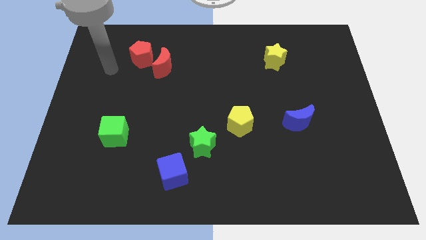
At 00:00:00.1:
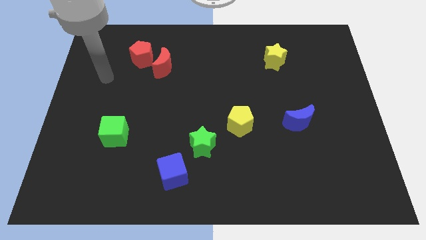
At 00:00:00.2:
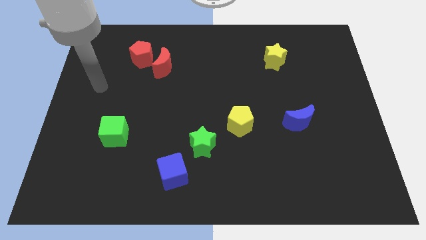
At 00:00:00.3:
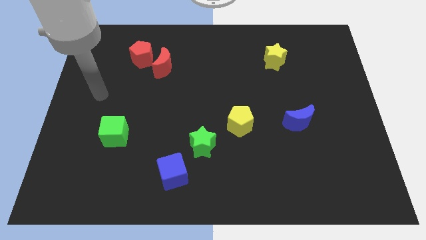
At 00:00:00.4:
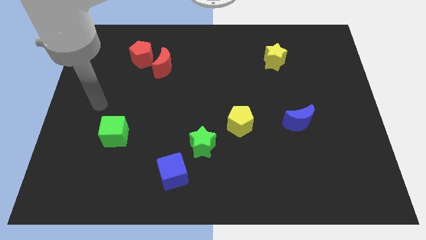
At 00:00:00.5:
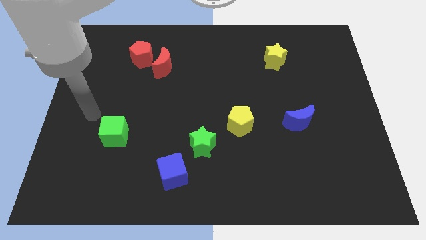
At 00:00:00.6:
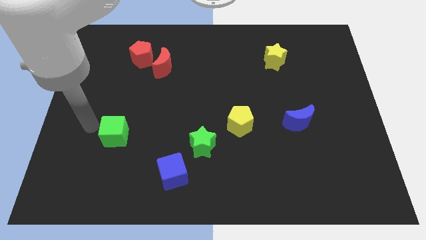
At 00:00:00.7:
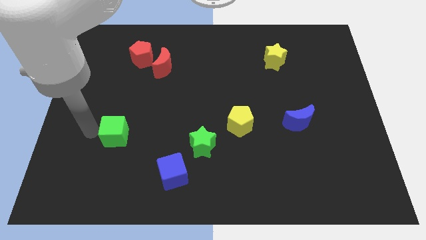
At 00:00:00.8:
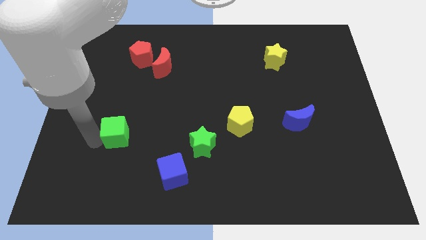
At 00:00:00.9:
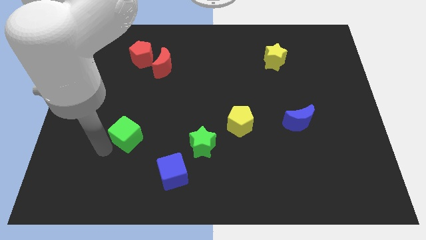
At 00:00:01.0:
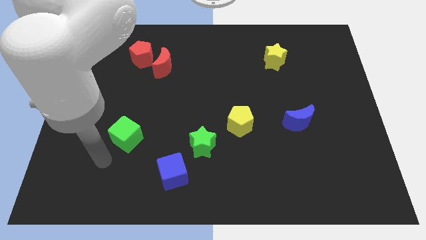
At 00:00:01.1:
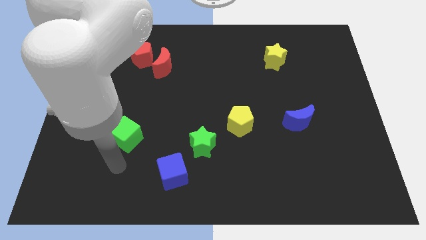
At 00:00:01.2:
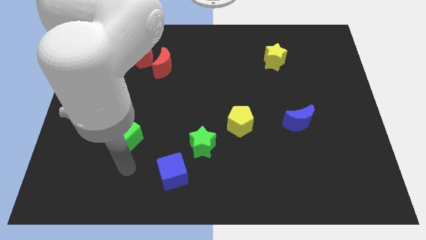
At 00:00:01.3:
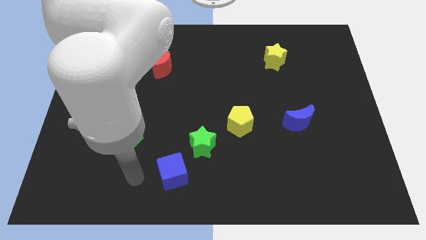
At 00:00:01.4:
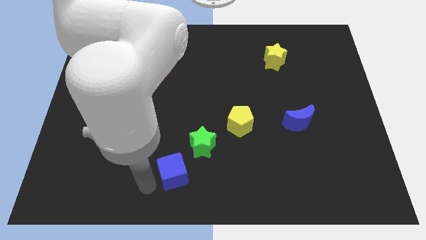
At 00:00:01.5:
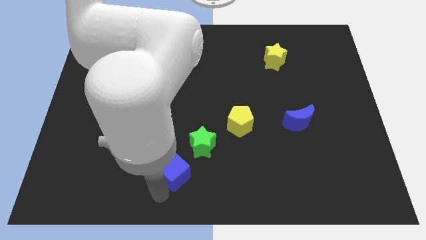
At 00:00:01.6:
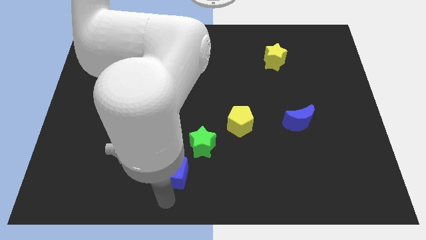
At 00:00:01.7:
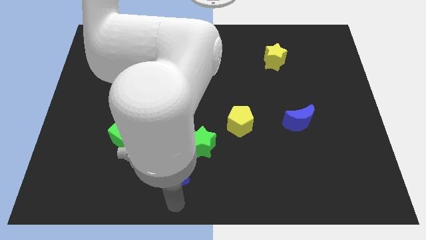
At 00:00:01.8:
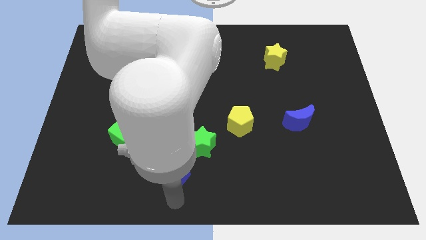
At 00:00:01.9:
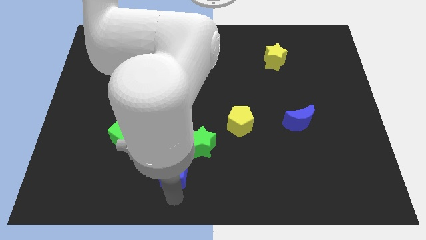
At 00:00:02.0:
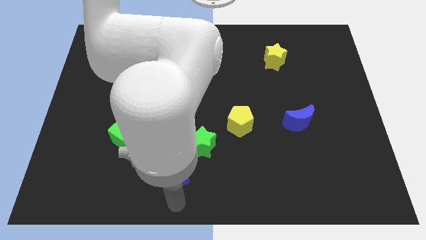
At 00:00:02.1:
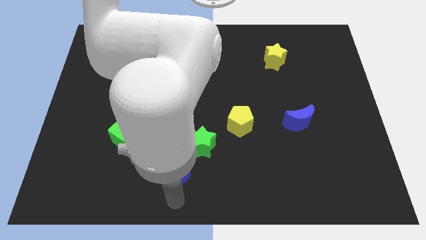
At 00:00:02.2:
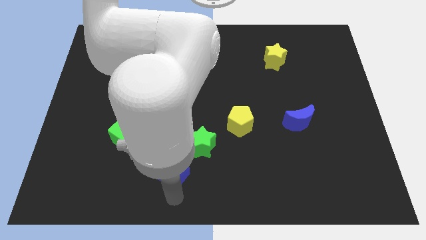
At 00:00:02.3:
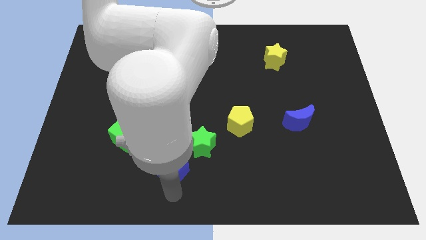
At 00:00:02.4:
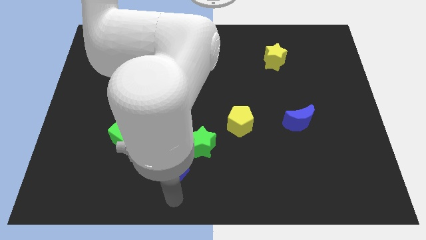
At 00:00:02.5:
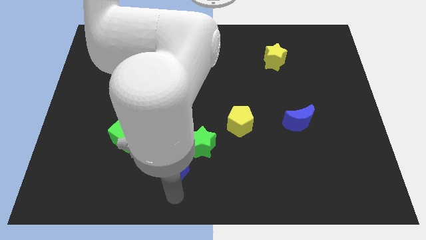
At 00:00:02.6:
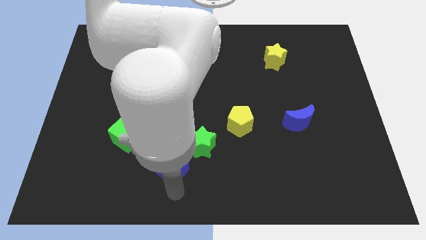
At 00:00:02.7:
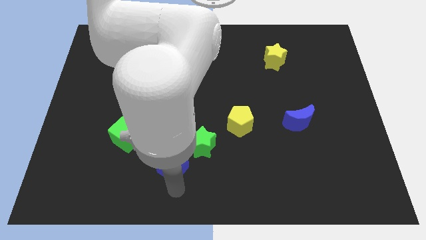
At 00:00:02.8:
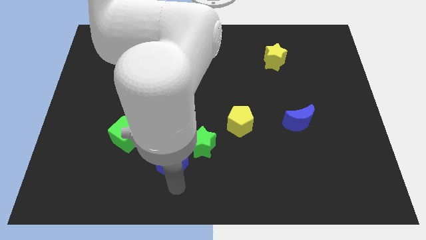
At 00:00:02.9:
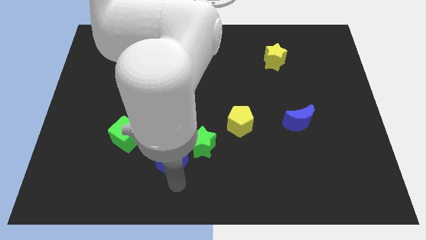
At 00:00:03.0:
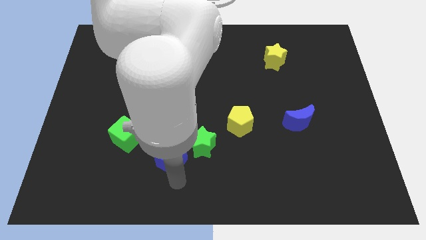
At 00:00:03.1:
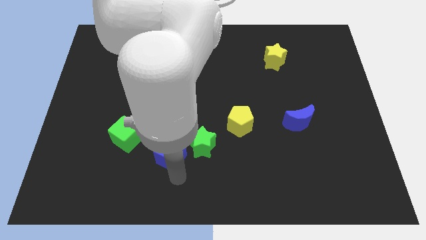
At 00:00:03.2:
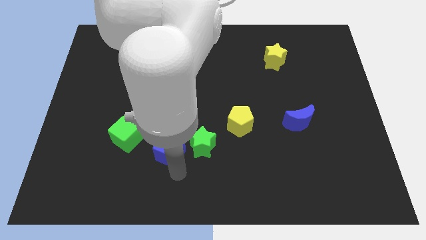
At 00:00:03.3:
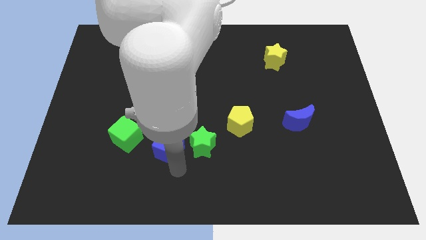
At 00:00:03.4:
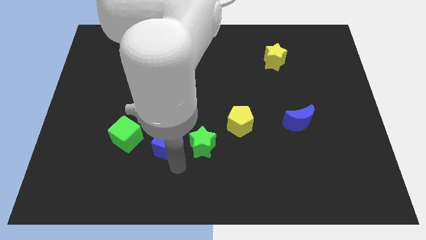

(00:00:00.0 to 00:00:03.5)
slightly push the blue cube up

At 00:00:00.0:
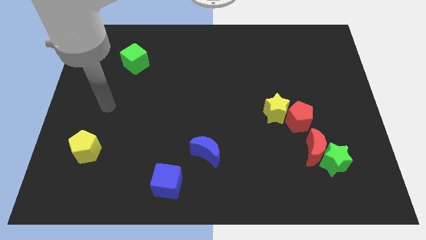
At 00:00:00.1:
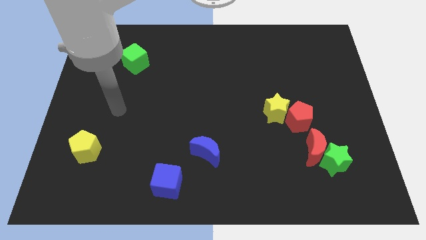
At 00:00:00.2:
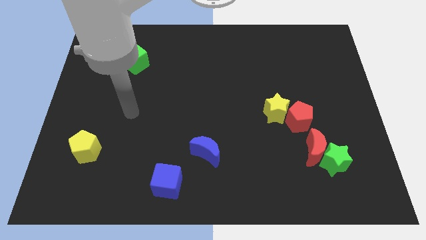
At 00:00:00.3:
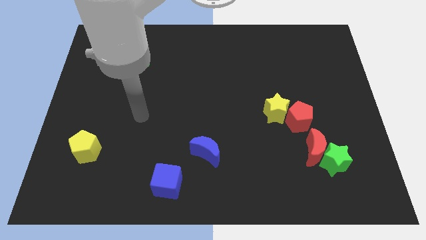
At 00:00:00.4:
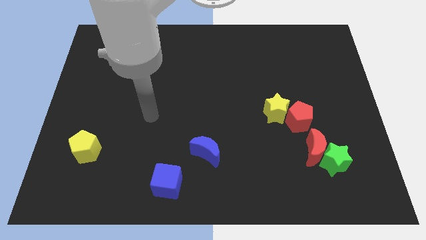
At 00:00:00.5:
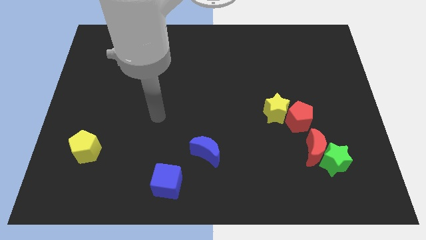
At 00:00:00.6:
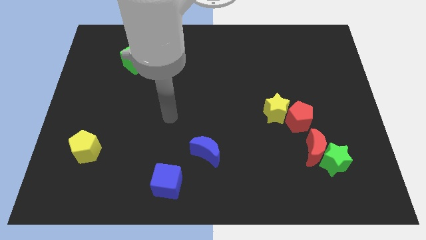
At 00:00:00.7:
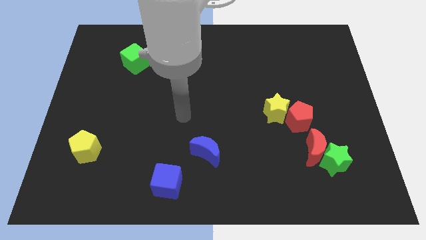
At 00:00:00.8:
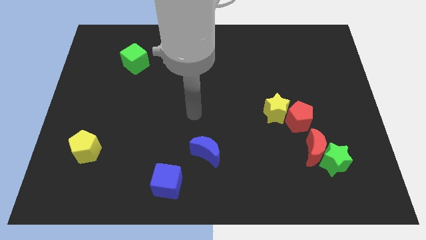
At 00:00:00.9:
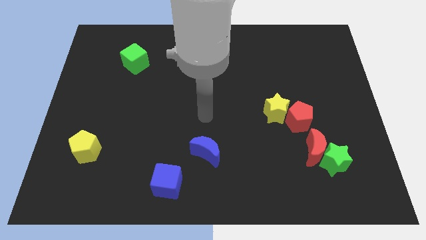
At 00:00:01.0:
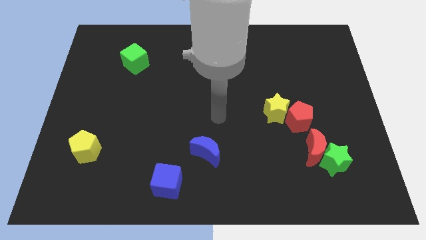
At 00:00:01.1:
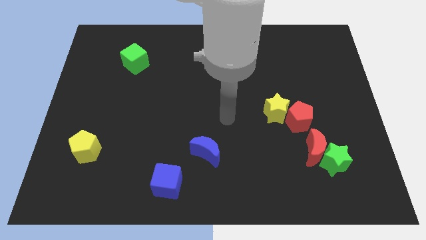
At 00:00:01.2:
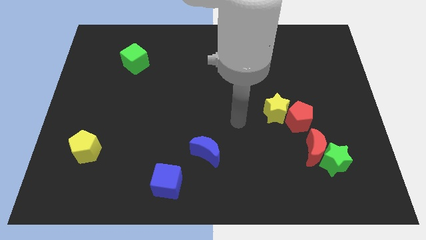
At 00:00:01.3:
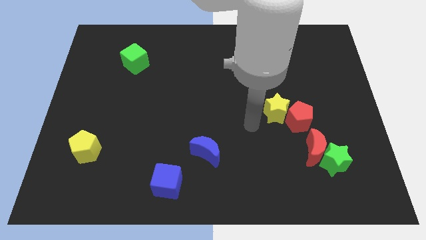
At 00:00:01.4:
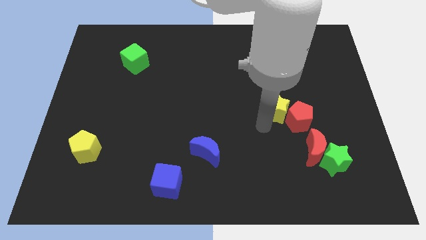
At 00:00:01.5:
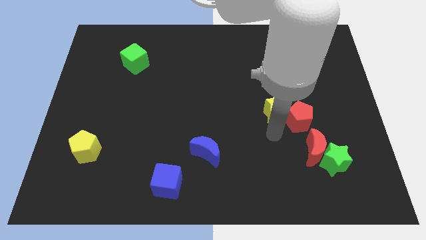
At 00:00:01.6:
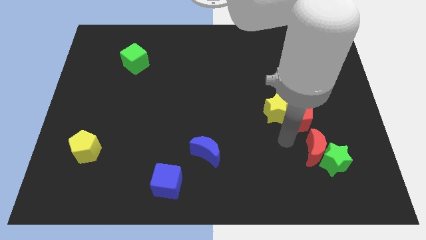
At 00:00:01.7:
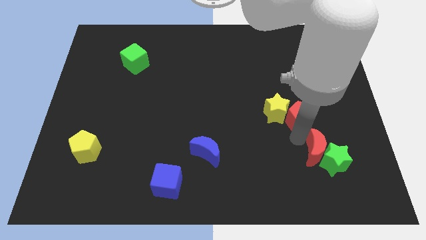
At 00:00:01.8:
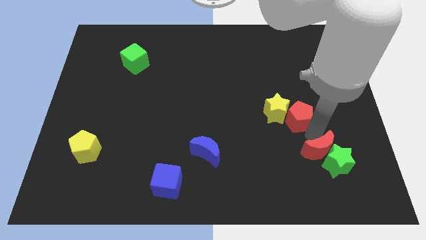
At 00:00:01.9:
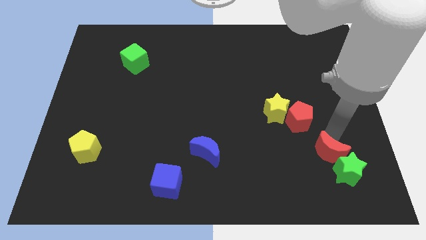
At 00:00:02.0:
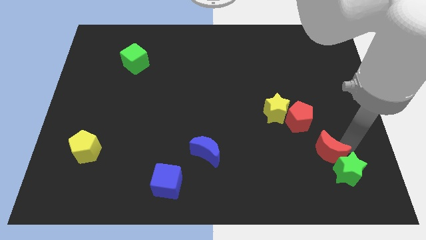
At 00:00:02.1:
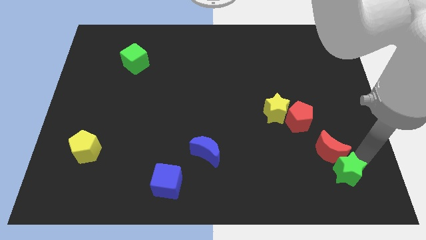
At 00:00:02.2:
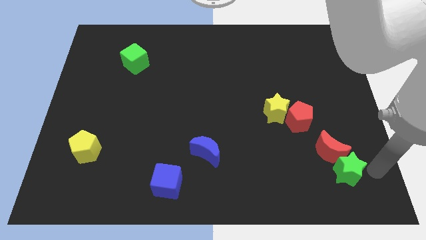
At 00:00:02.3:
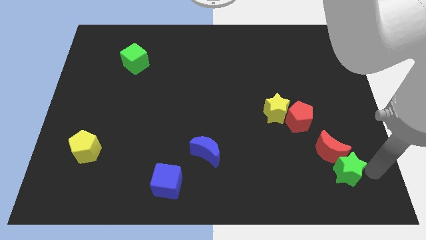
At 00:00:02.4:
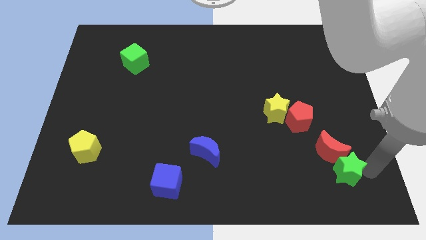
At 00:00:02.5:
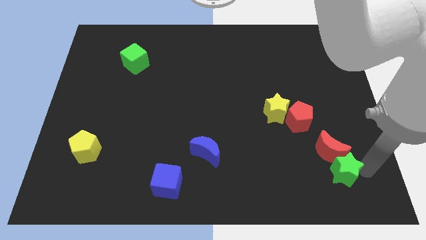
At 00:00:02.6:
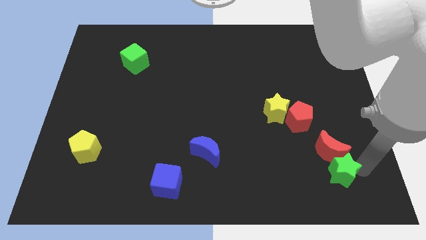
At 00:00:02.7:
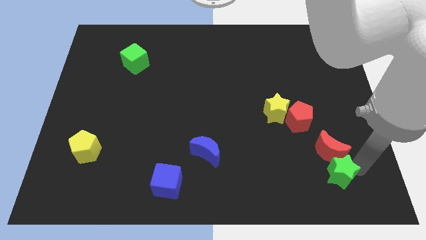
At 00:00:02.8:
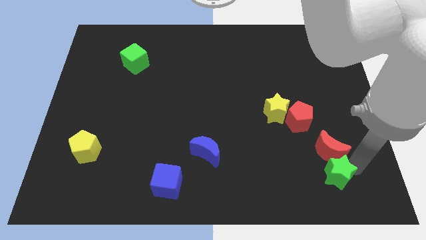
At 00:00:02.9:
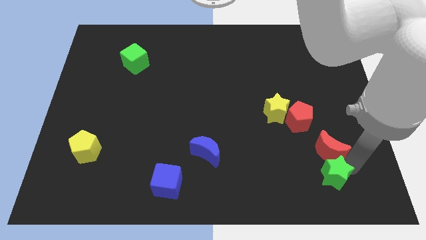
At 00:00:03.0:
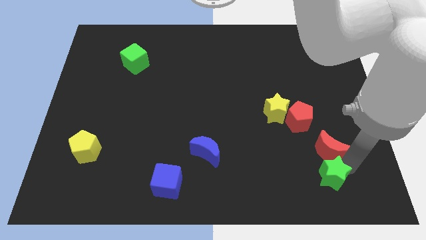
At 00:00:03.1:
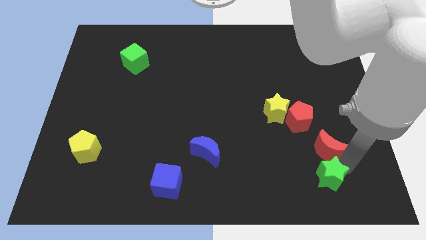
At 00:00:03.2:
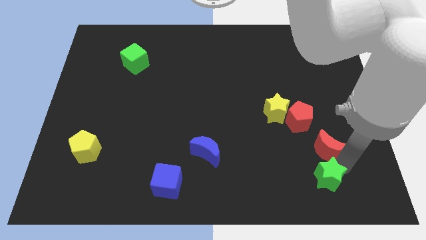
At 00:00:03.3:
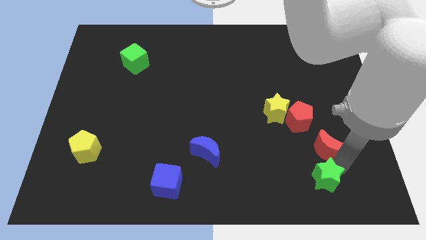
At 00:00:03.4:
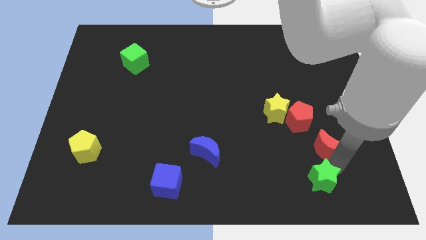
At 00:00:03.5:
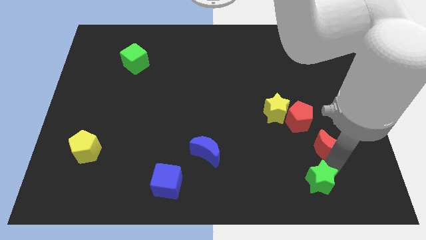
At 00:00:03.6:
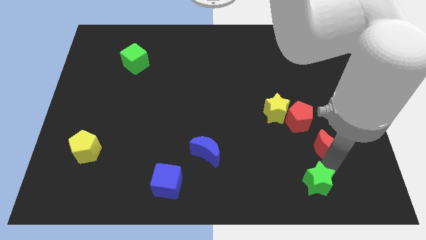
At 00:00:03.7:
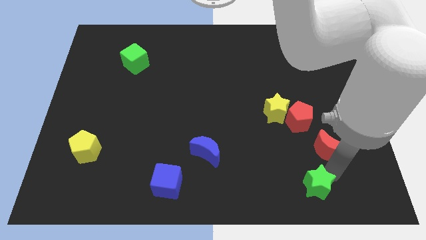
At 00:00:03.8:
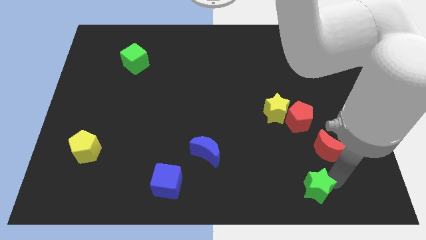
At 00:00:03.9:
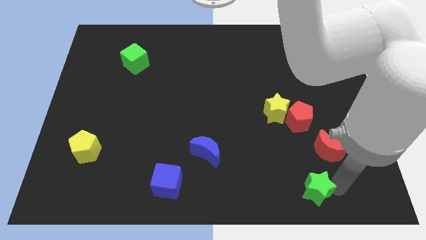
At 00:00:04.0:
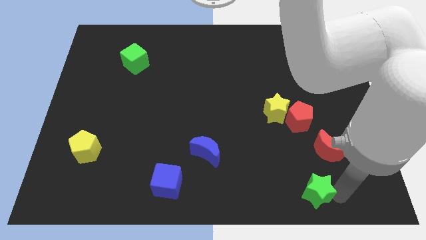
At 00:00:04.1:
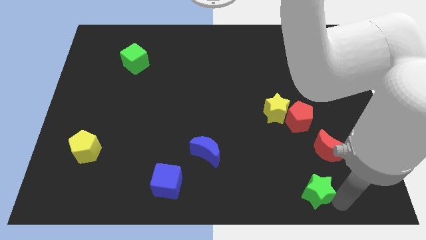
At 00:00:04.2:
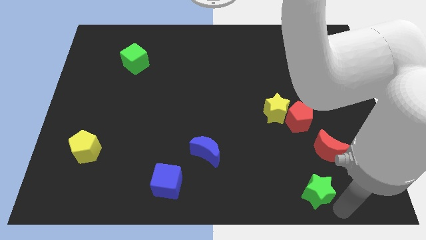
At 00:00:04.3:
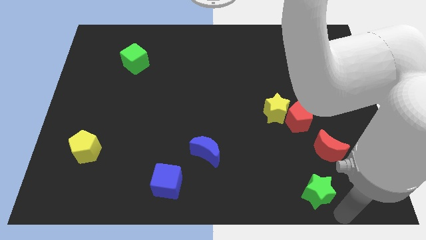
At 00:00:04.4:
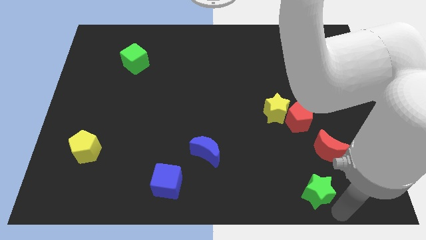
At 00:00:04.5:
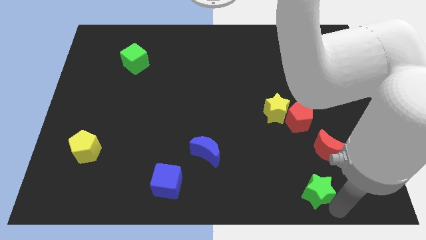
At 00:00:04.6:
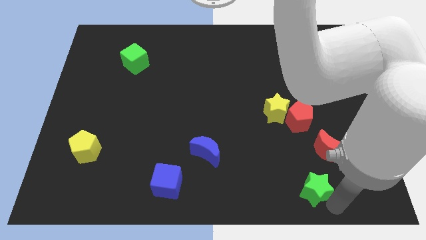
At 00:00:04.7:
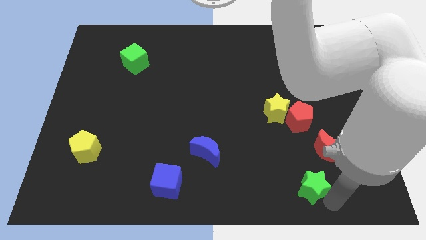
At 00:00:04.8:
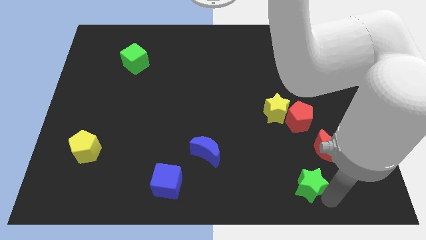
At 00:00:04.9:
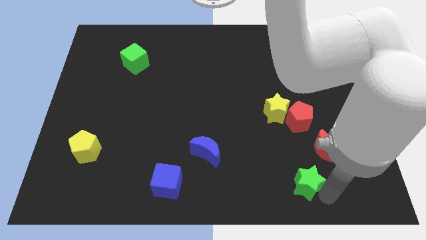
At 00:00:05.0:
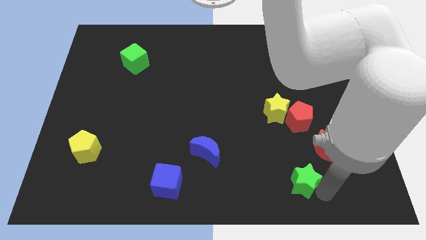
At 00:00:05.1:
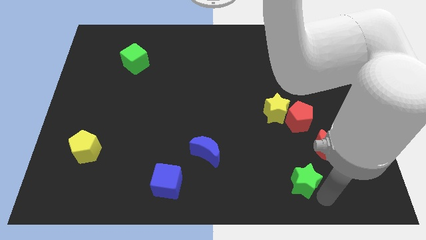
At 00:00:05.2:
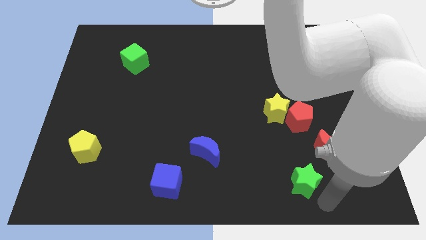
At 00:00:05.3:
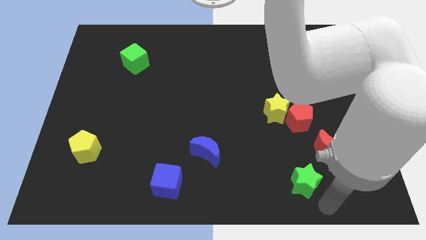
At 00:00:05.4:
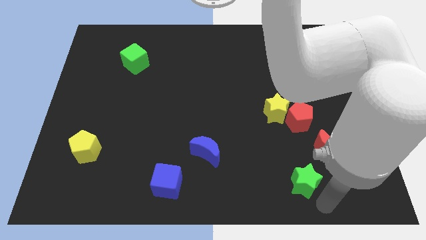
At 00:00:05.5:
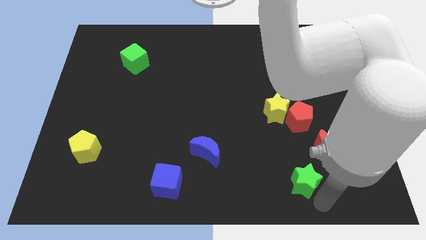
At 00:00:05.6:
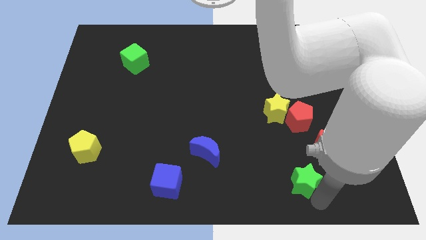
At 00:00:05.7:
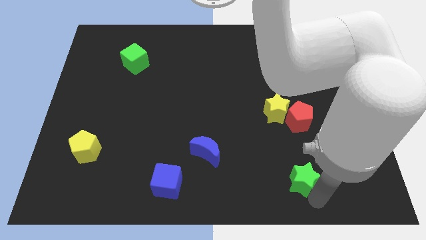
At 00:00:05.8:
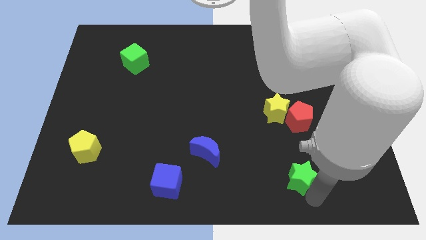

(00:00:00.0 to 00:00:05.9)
move the green star to the left a little
